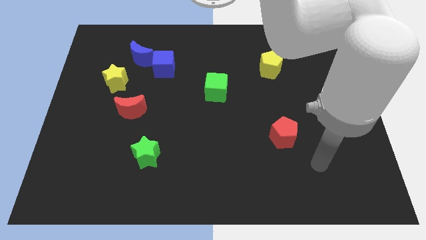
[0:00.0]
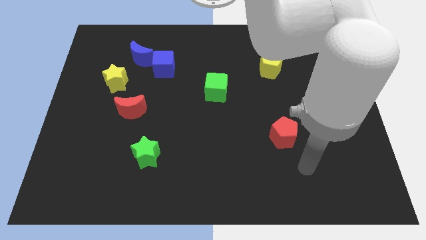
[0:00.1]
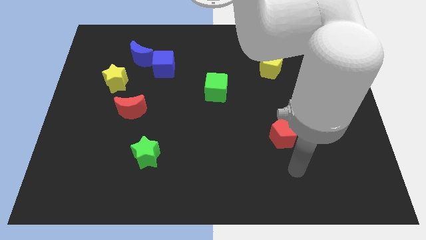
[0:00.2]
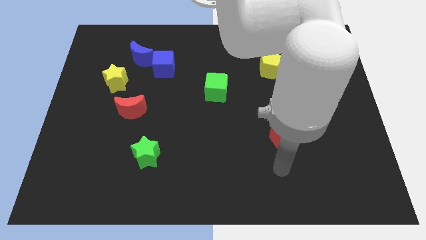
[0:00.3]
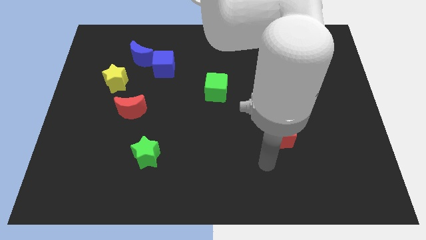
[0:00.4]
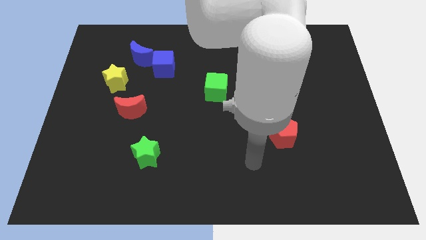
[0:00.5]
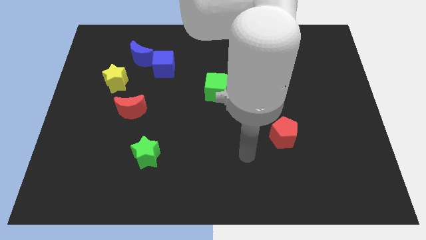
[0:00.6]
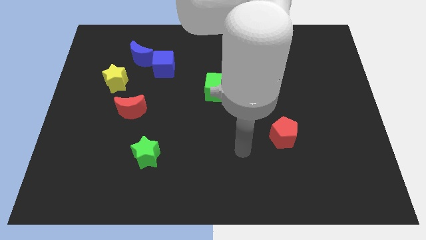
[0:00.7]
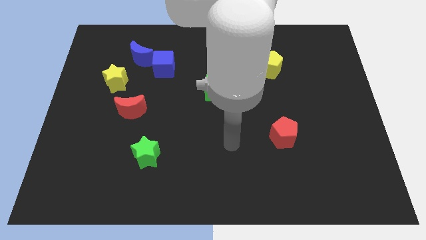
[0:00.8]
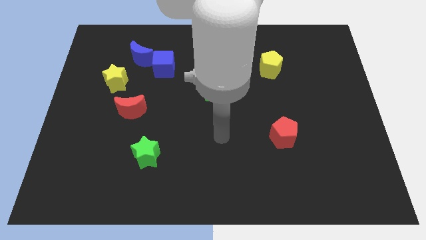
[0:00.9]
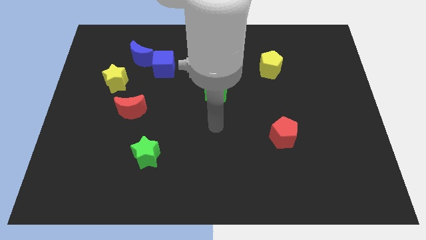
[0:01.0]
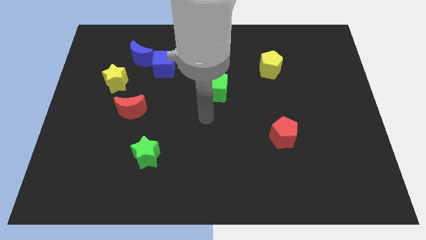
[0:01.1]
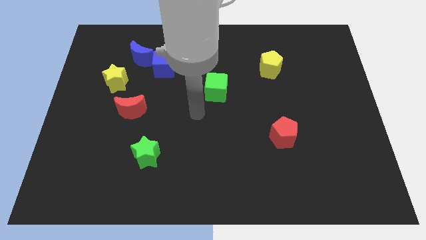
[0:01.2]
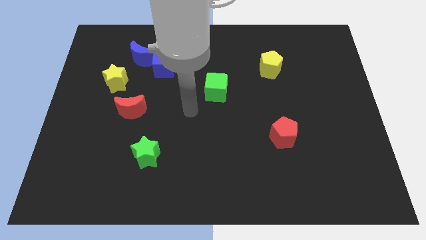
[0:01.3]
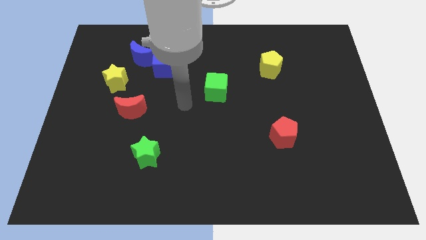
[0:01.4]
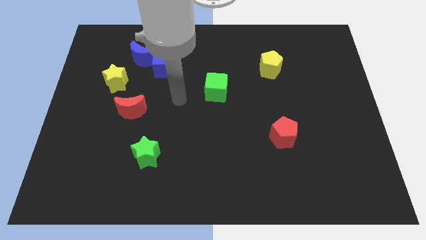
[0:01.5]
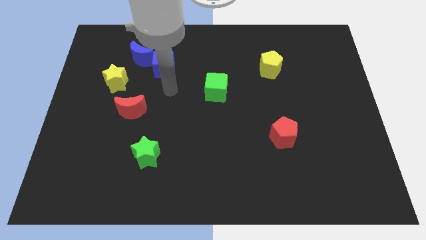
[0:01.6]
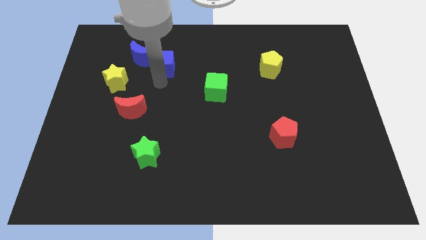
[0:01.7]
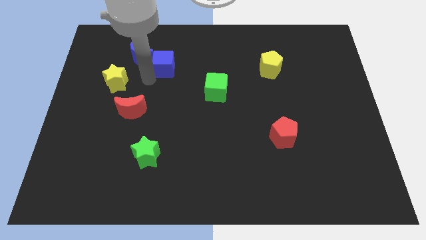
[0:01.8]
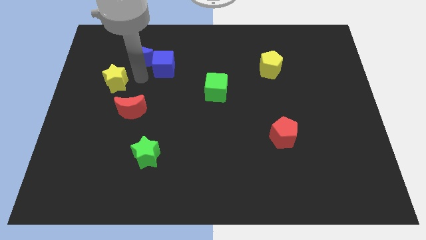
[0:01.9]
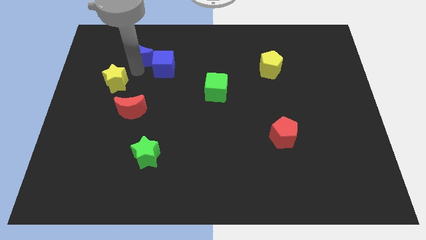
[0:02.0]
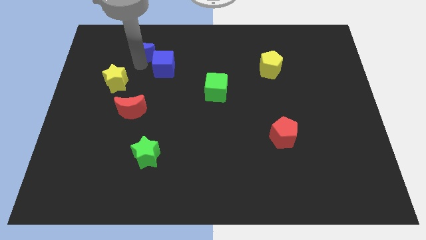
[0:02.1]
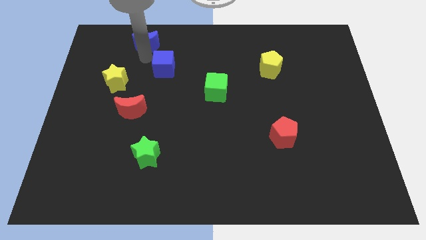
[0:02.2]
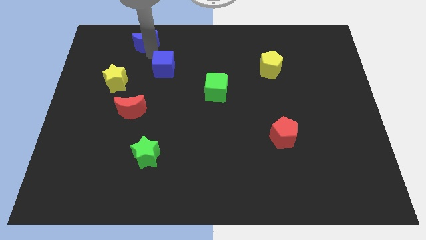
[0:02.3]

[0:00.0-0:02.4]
separate the blue cube from the blue moon

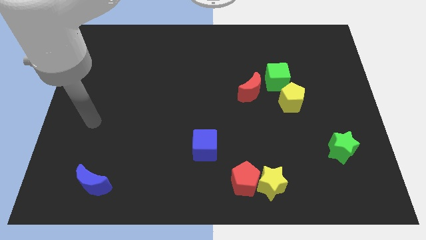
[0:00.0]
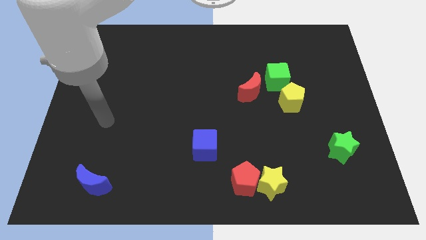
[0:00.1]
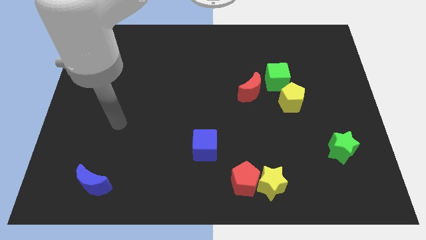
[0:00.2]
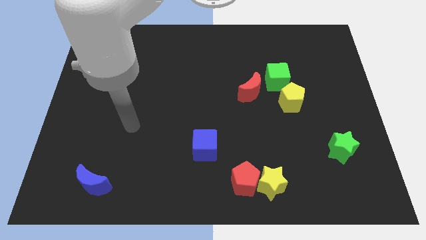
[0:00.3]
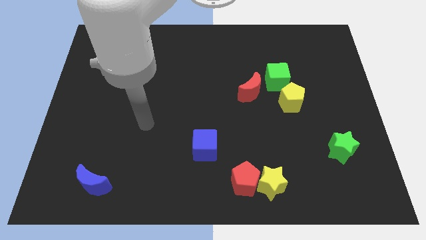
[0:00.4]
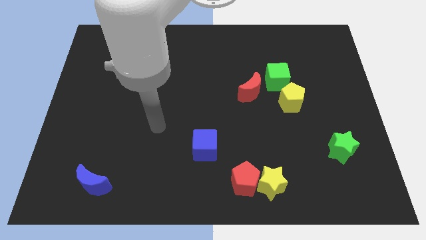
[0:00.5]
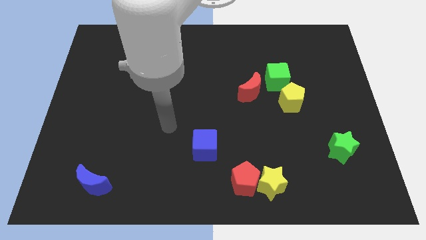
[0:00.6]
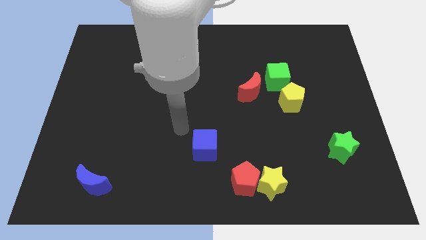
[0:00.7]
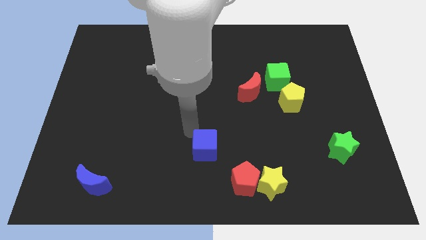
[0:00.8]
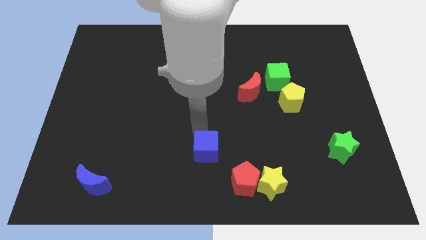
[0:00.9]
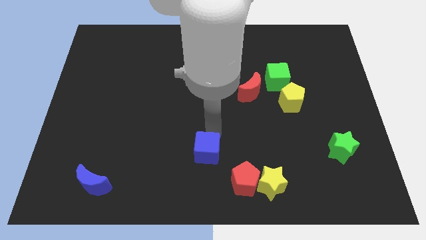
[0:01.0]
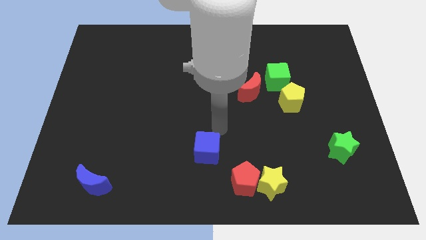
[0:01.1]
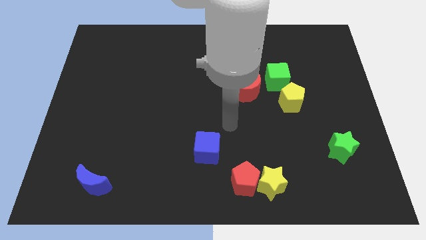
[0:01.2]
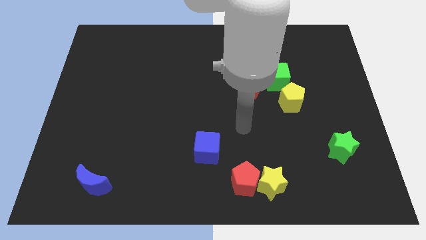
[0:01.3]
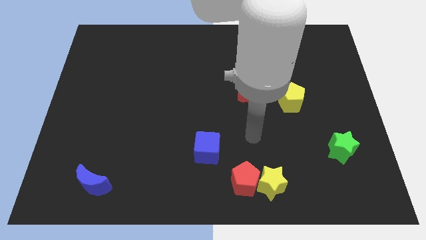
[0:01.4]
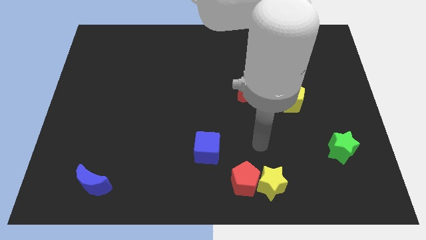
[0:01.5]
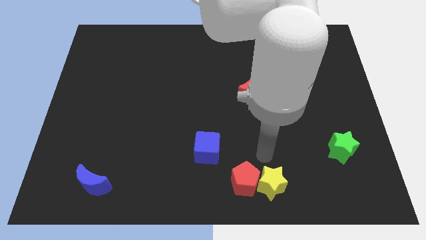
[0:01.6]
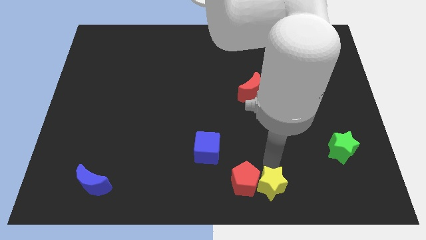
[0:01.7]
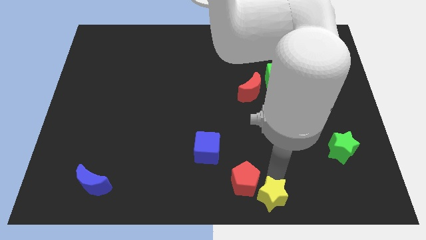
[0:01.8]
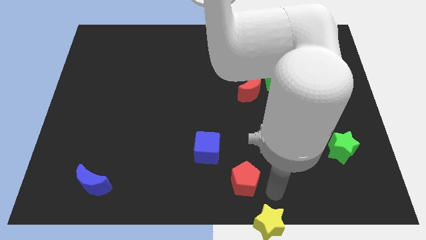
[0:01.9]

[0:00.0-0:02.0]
separate the red pentagon from the yellow star

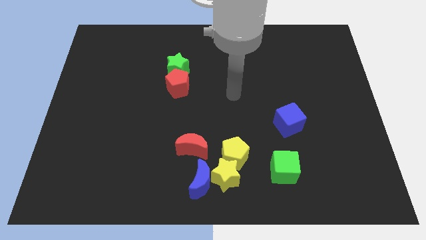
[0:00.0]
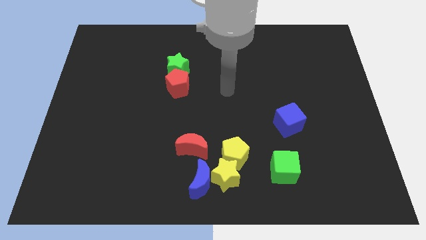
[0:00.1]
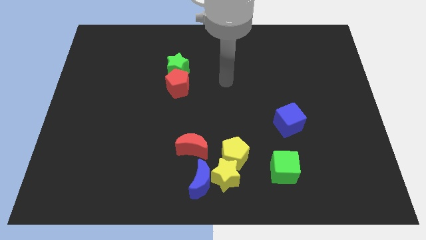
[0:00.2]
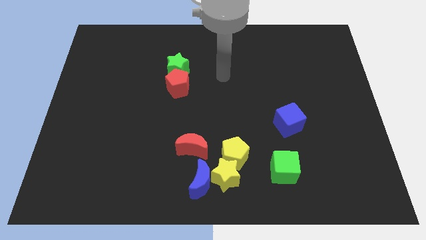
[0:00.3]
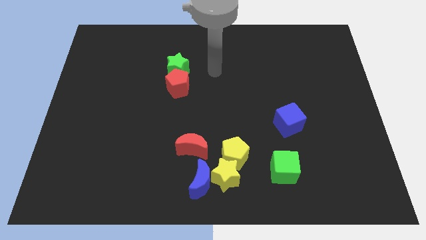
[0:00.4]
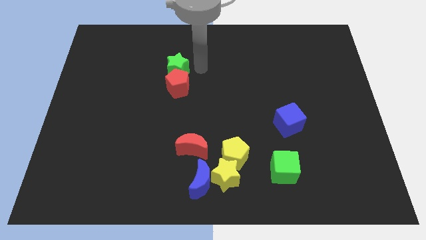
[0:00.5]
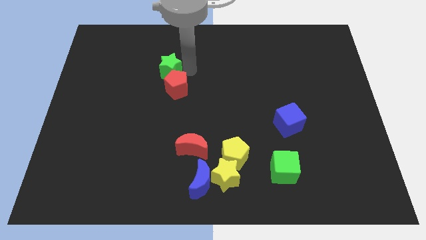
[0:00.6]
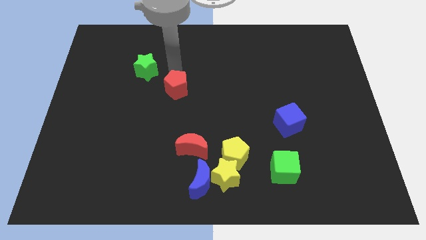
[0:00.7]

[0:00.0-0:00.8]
move the red pentagon away from the green star

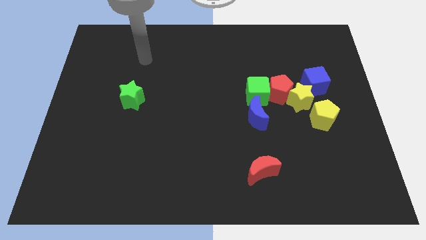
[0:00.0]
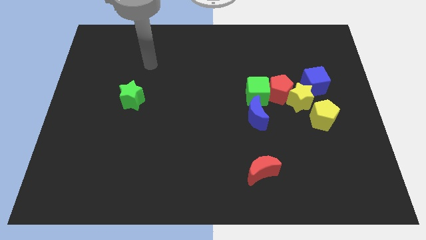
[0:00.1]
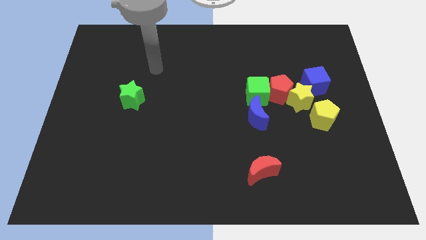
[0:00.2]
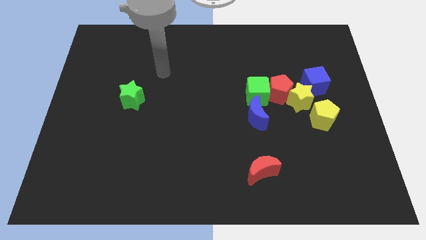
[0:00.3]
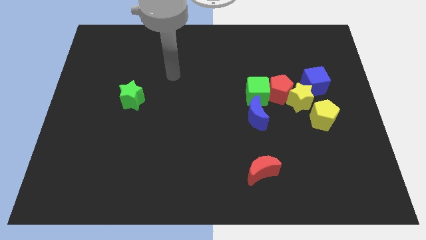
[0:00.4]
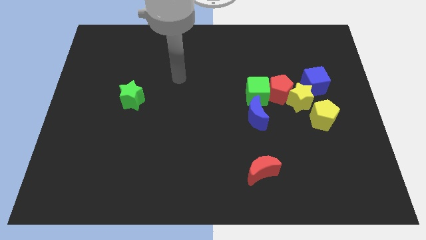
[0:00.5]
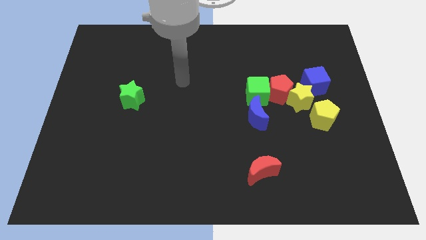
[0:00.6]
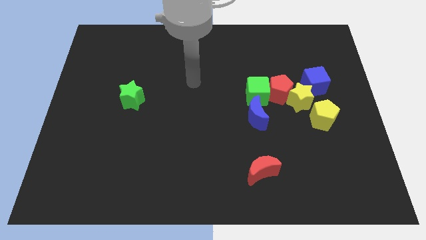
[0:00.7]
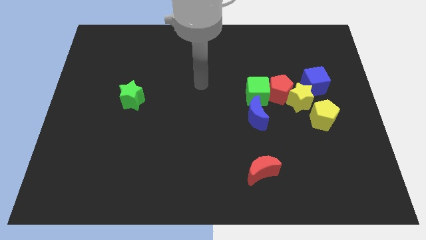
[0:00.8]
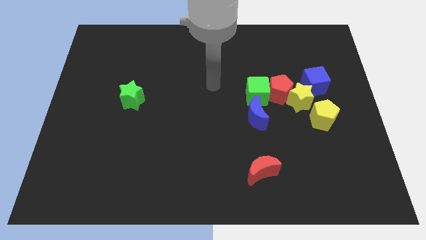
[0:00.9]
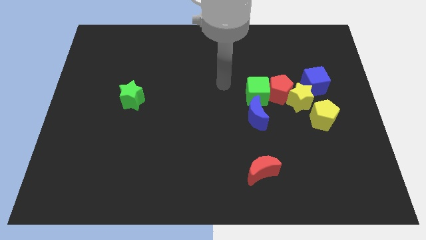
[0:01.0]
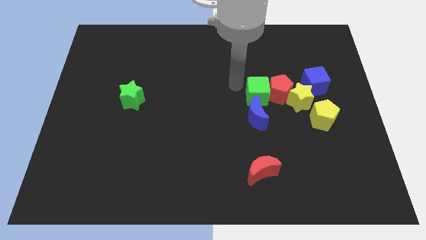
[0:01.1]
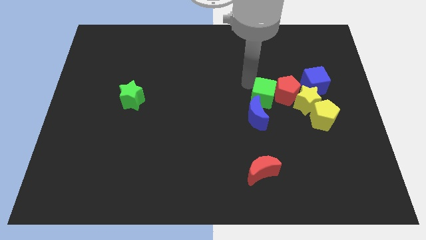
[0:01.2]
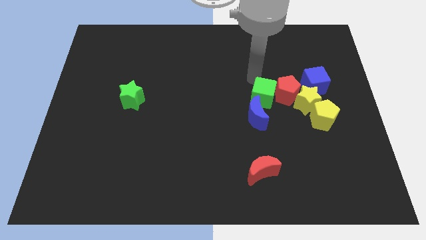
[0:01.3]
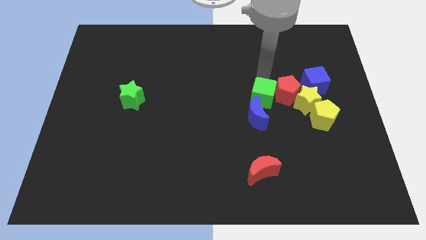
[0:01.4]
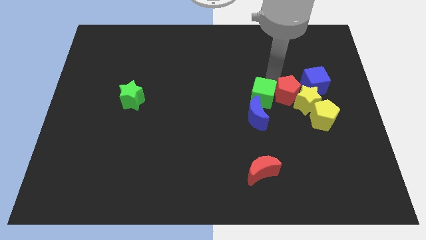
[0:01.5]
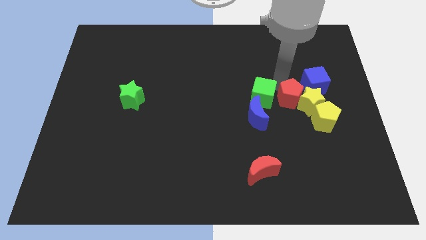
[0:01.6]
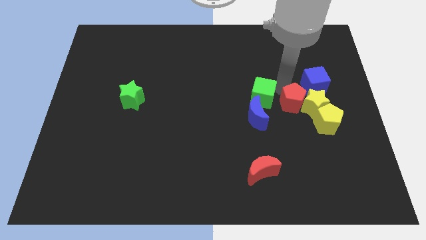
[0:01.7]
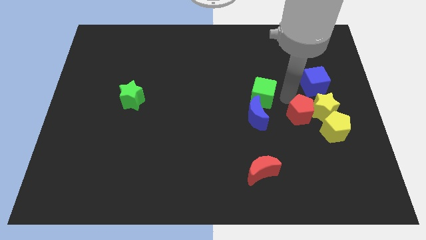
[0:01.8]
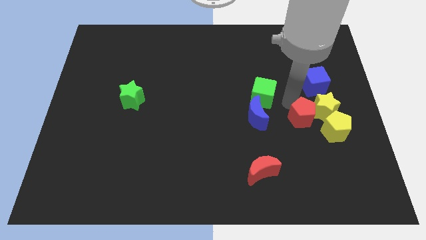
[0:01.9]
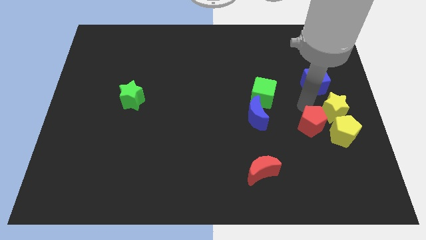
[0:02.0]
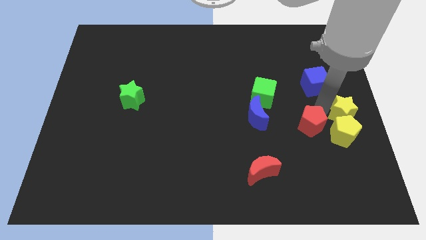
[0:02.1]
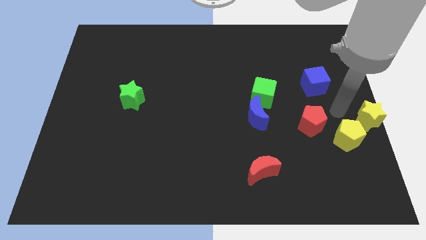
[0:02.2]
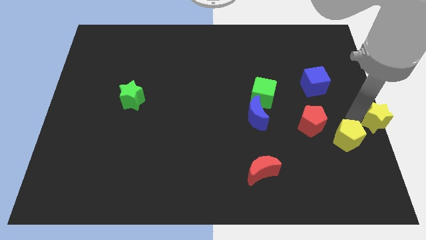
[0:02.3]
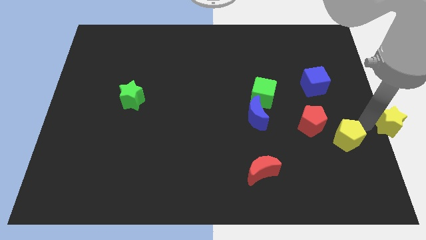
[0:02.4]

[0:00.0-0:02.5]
pull the yellow pentagon apart from the yellow star

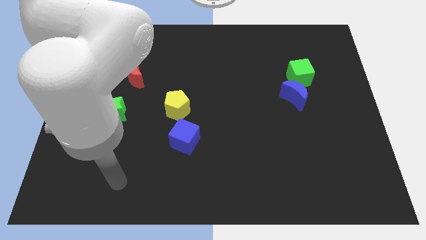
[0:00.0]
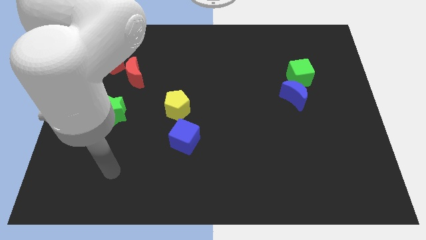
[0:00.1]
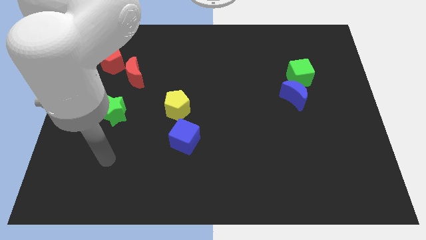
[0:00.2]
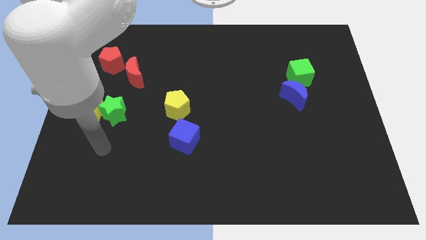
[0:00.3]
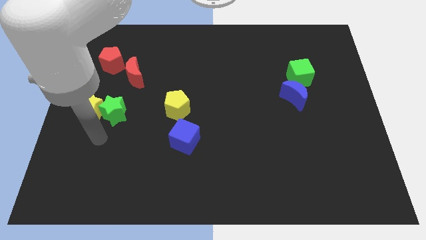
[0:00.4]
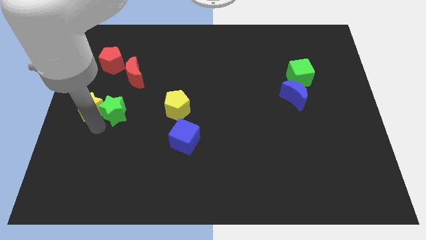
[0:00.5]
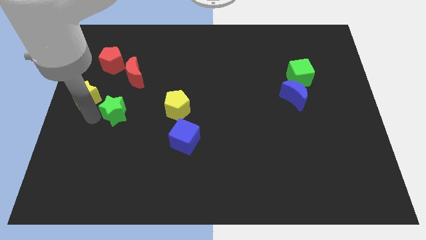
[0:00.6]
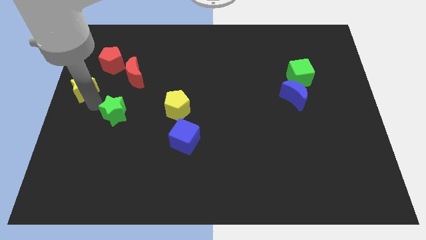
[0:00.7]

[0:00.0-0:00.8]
move the green star away from the yellow star

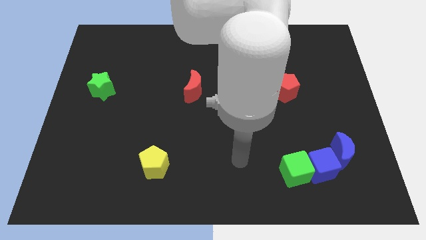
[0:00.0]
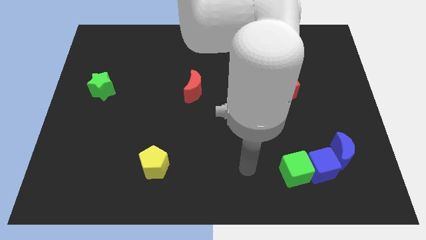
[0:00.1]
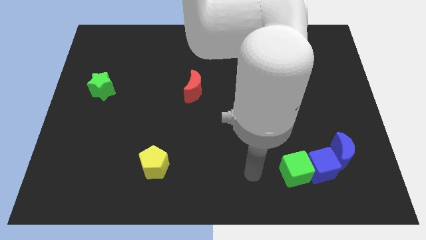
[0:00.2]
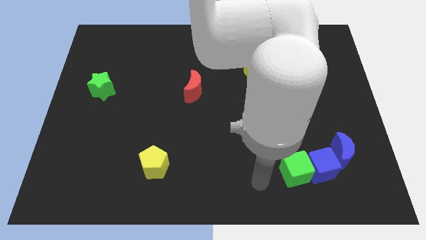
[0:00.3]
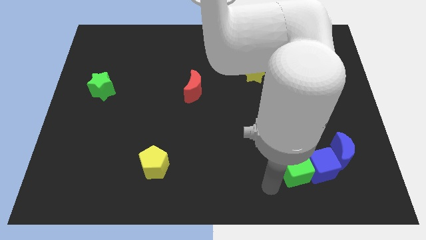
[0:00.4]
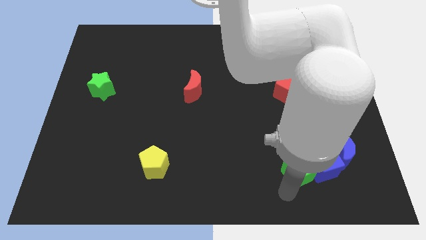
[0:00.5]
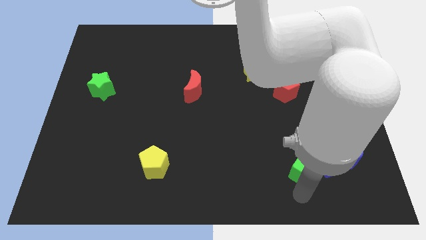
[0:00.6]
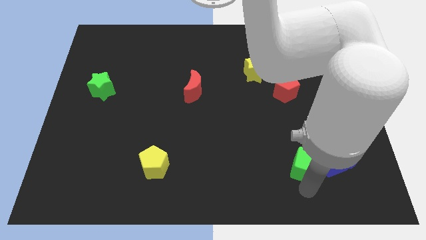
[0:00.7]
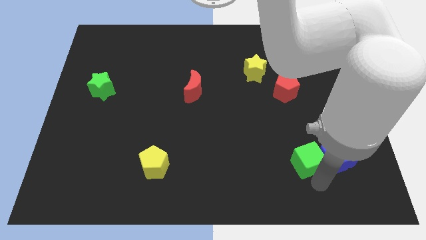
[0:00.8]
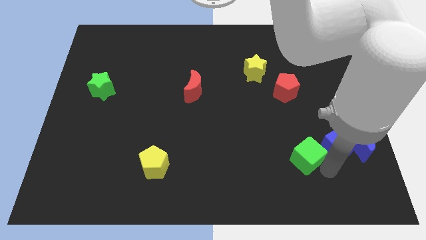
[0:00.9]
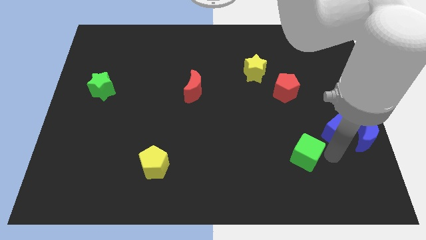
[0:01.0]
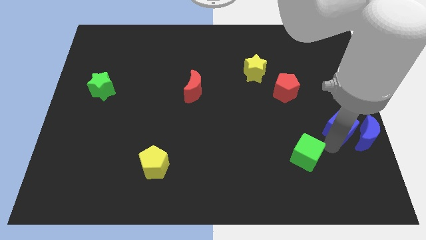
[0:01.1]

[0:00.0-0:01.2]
move the green cube away from the blue cube
